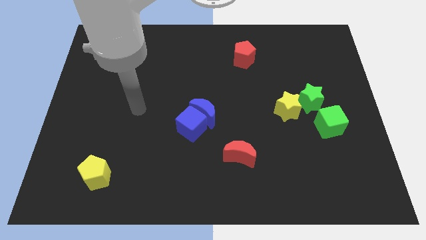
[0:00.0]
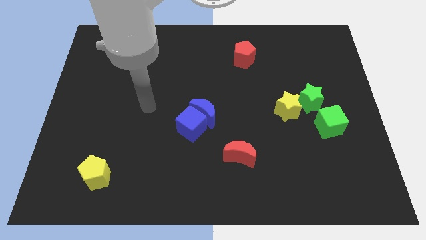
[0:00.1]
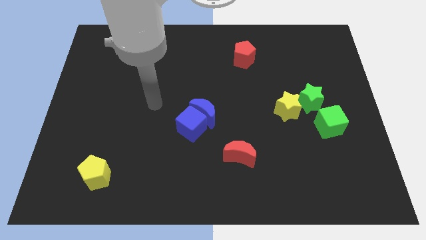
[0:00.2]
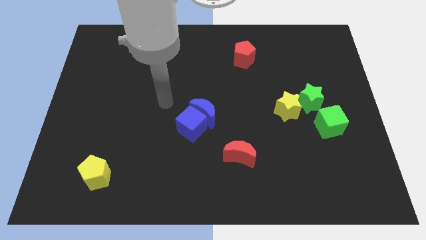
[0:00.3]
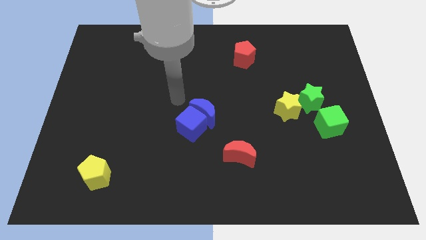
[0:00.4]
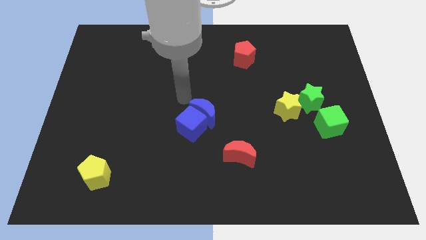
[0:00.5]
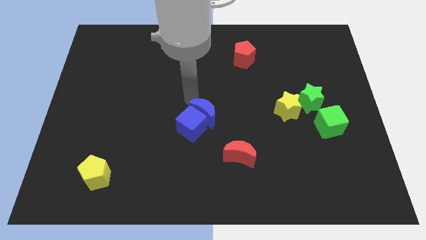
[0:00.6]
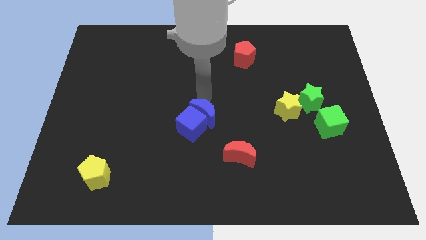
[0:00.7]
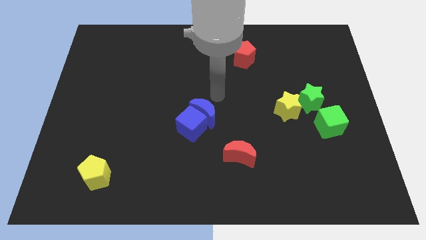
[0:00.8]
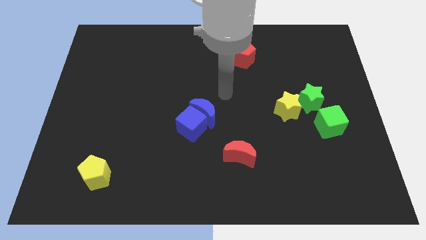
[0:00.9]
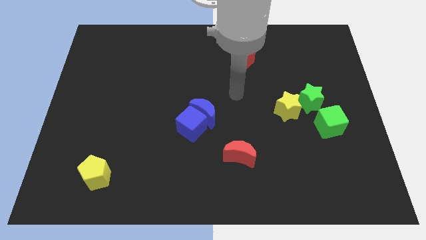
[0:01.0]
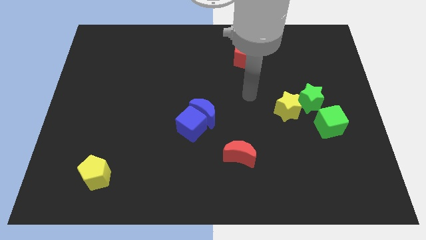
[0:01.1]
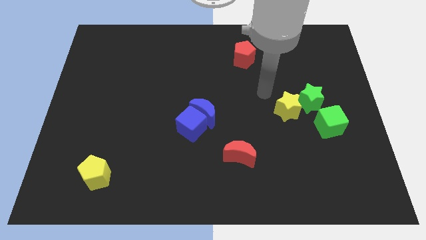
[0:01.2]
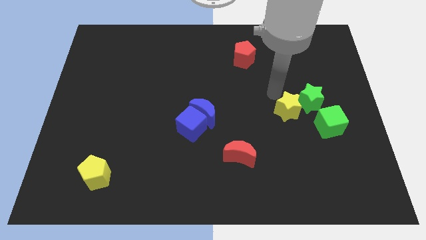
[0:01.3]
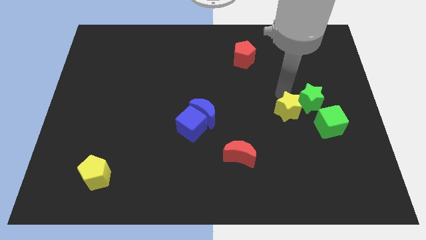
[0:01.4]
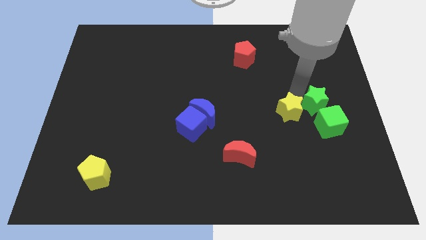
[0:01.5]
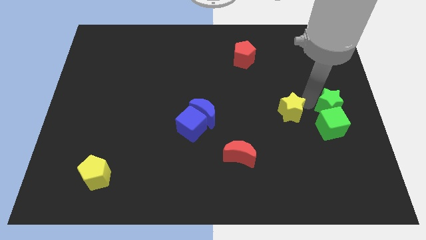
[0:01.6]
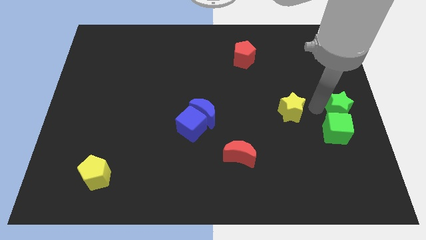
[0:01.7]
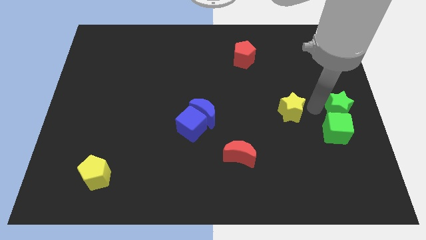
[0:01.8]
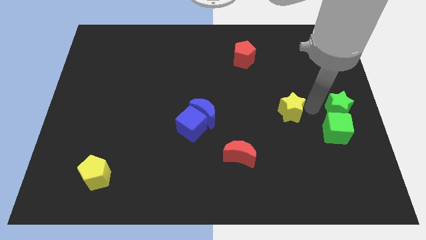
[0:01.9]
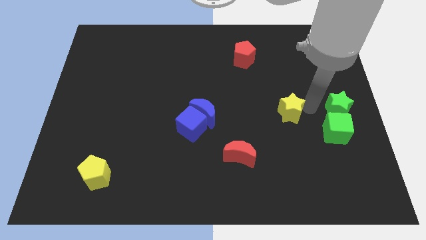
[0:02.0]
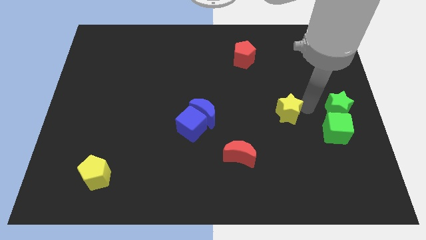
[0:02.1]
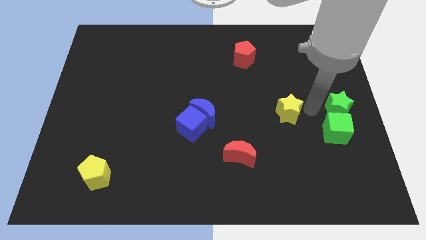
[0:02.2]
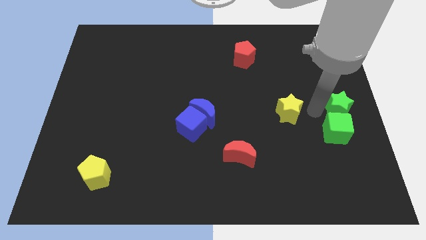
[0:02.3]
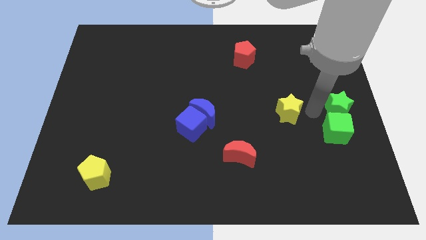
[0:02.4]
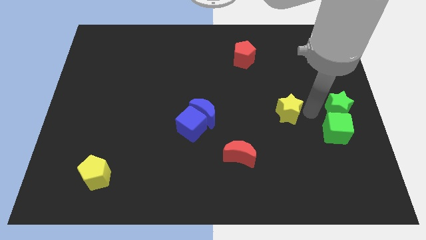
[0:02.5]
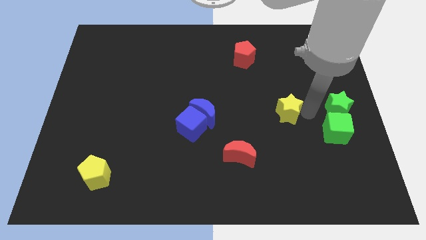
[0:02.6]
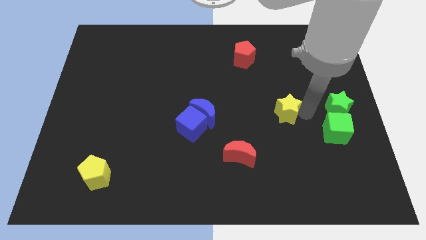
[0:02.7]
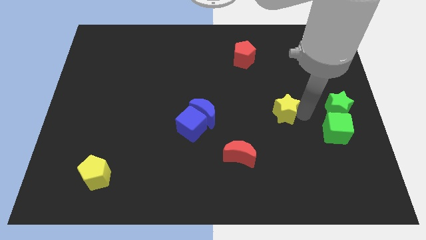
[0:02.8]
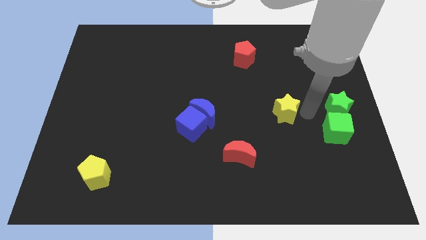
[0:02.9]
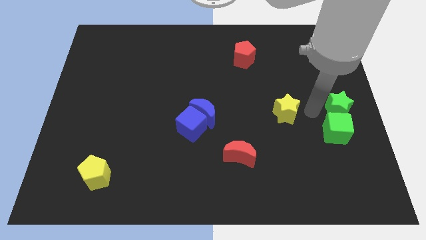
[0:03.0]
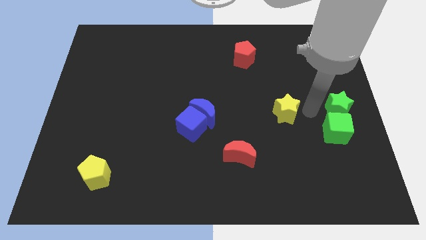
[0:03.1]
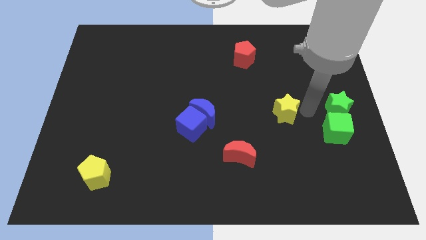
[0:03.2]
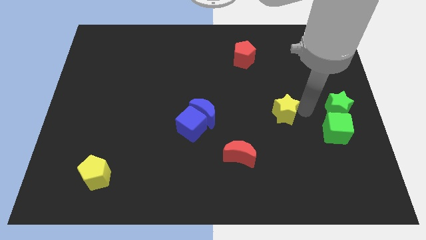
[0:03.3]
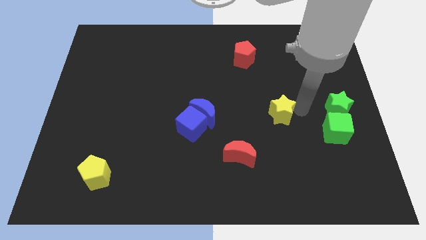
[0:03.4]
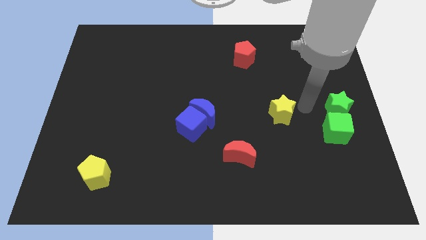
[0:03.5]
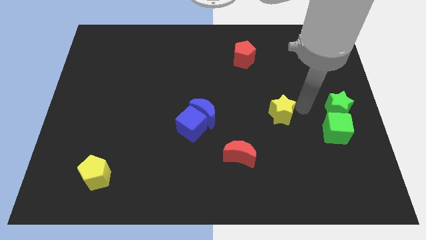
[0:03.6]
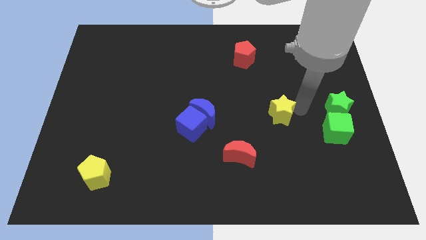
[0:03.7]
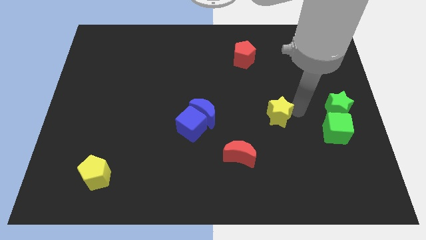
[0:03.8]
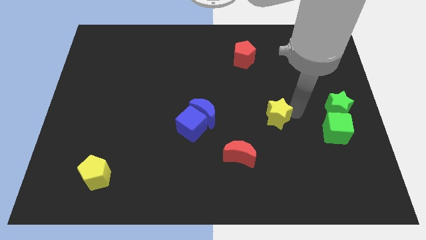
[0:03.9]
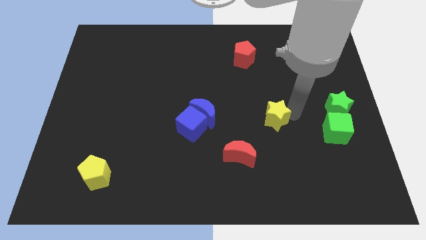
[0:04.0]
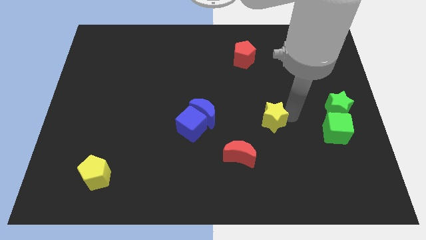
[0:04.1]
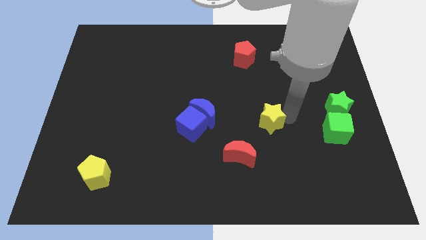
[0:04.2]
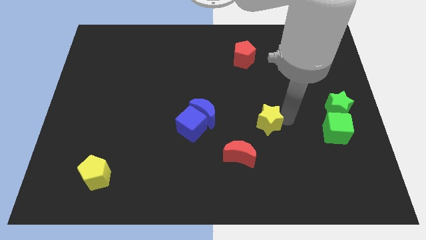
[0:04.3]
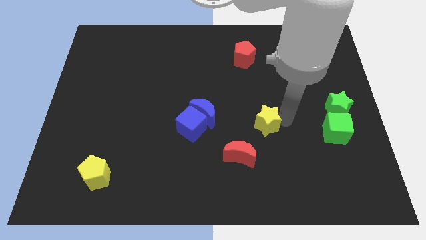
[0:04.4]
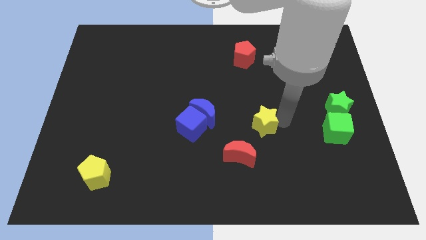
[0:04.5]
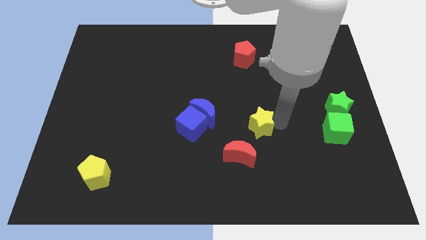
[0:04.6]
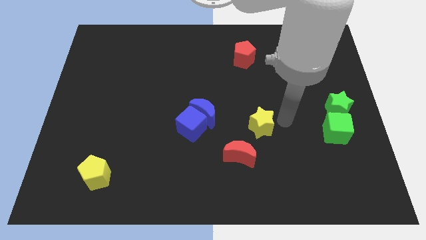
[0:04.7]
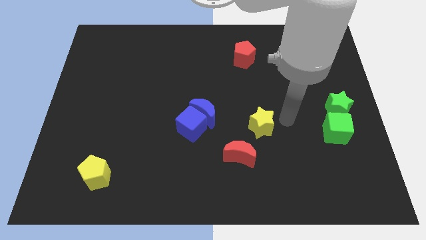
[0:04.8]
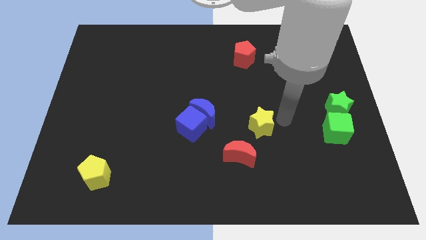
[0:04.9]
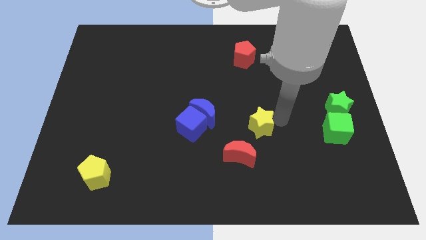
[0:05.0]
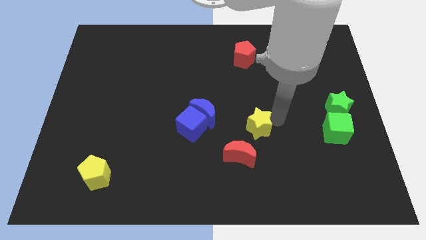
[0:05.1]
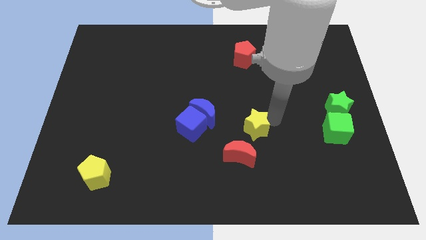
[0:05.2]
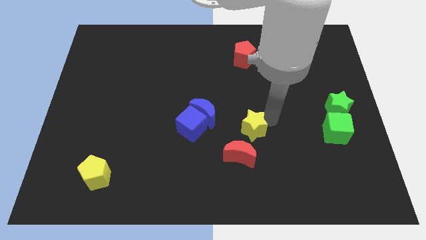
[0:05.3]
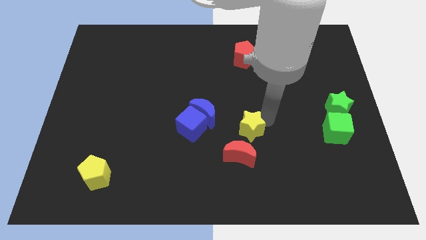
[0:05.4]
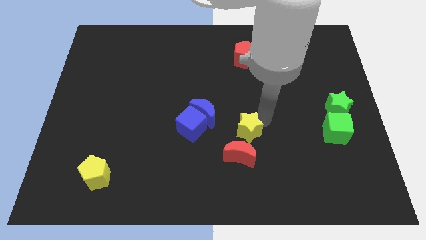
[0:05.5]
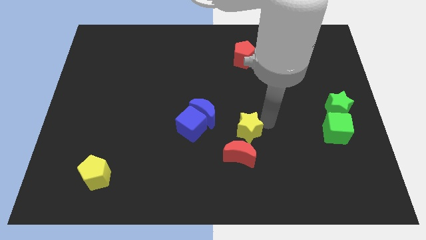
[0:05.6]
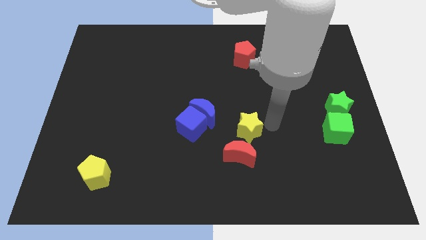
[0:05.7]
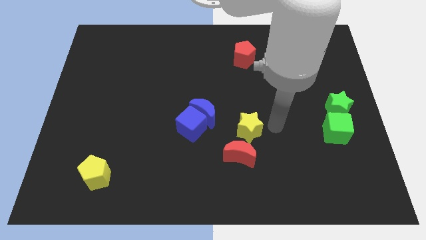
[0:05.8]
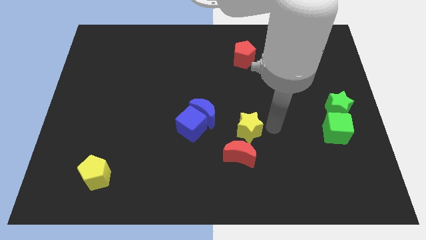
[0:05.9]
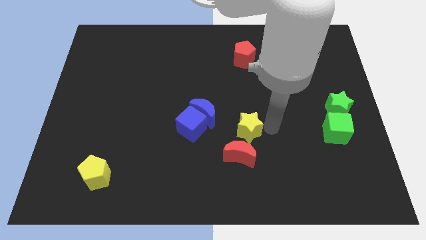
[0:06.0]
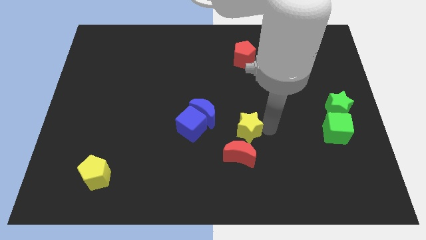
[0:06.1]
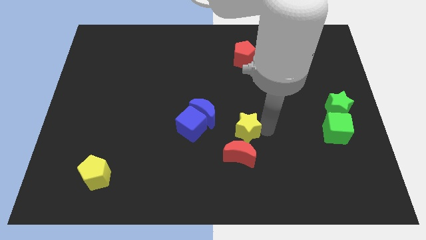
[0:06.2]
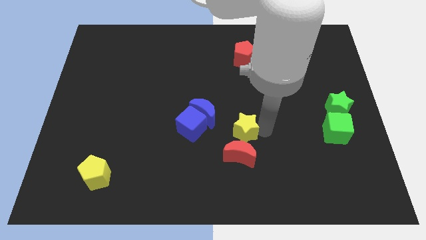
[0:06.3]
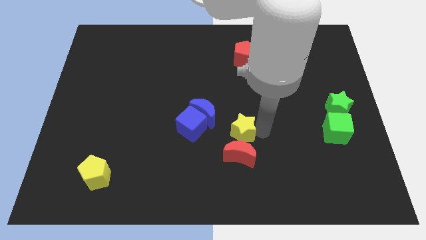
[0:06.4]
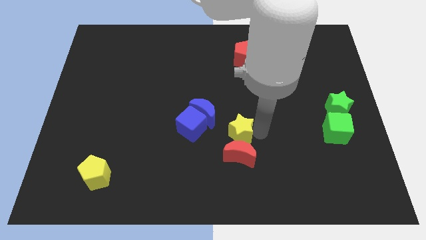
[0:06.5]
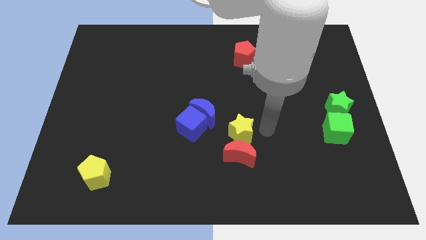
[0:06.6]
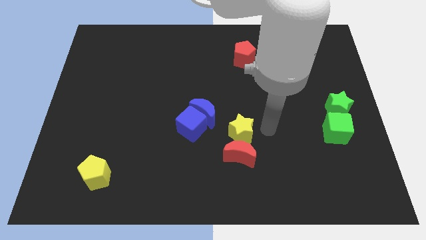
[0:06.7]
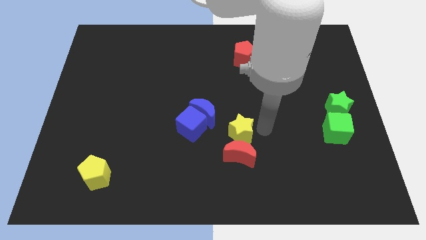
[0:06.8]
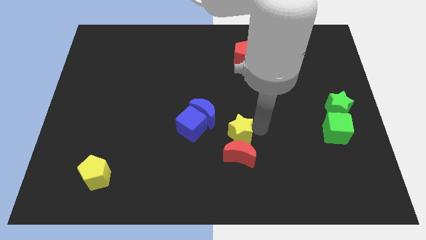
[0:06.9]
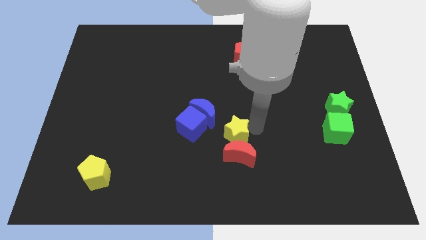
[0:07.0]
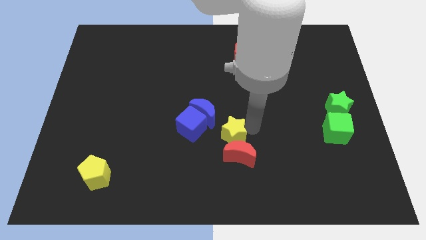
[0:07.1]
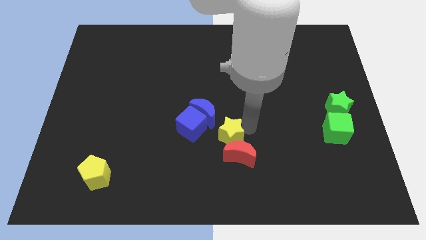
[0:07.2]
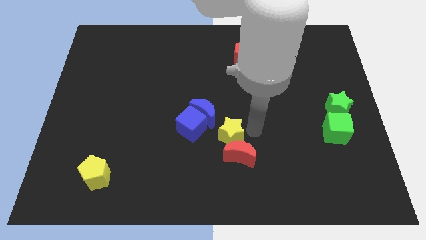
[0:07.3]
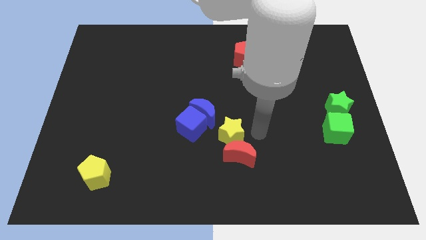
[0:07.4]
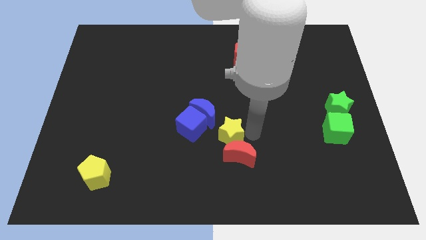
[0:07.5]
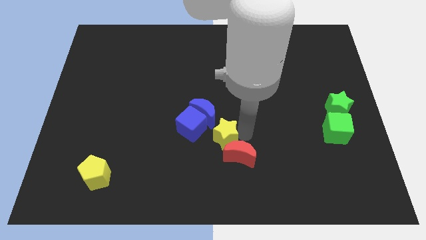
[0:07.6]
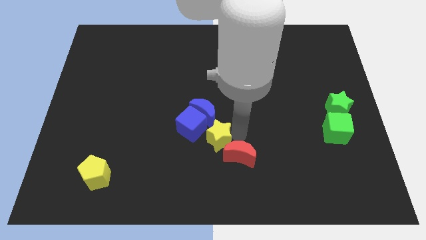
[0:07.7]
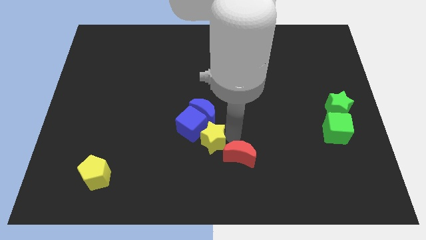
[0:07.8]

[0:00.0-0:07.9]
put the yellow star towards the blue cube
